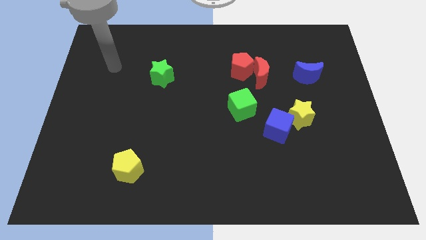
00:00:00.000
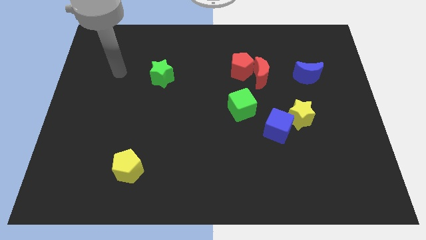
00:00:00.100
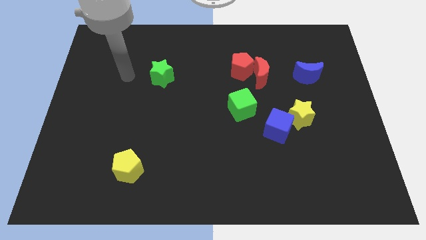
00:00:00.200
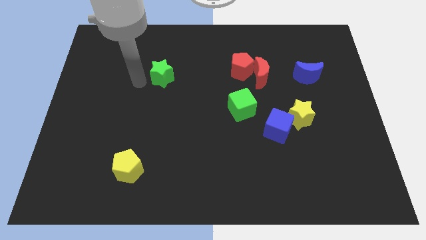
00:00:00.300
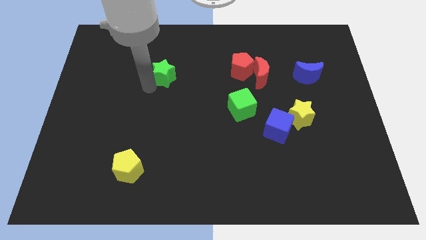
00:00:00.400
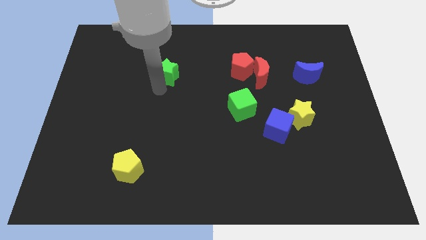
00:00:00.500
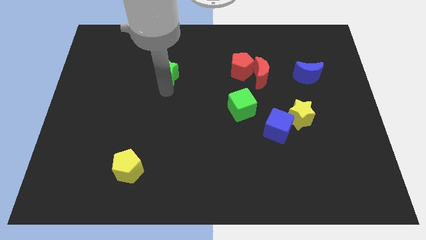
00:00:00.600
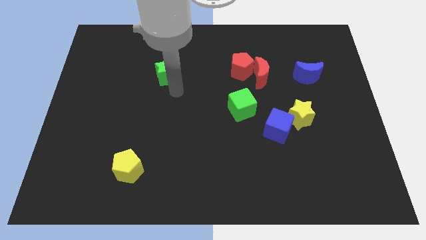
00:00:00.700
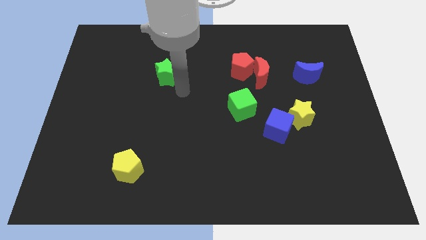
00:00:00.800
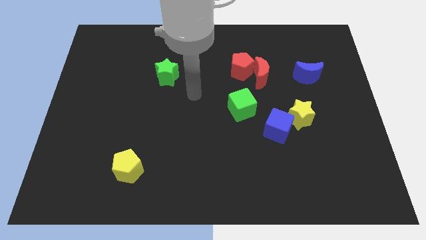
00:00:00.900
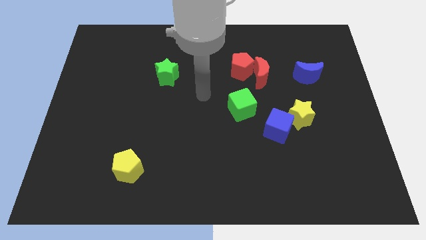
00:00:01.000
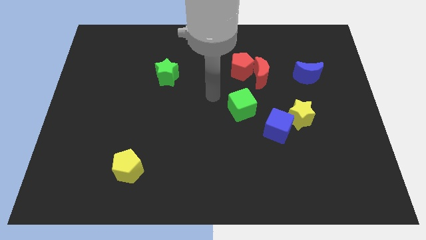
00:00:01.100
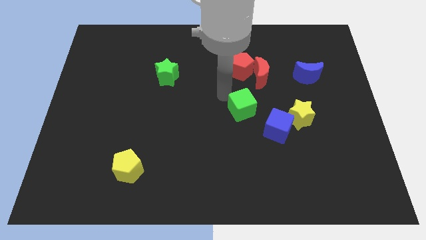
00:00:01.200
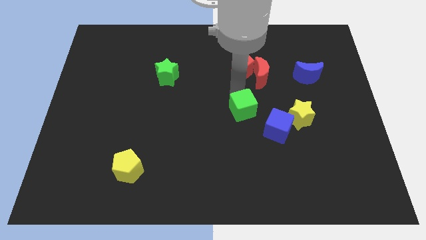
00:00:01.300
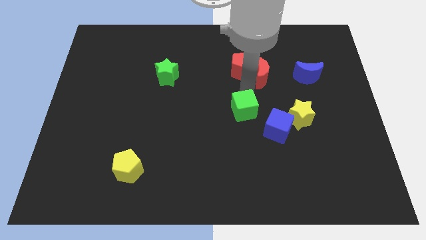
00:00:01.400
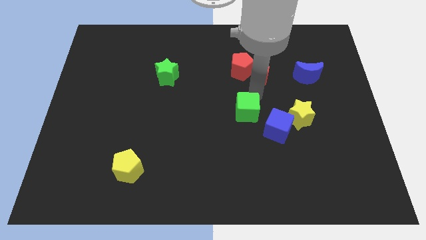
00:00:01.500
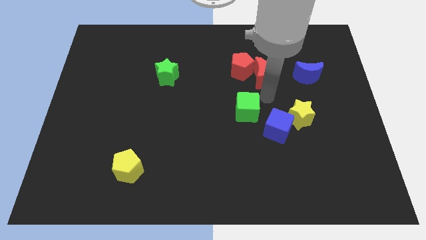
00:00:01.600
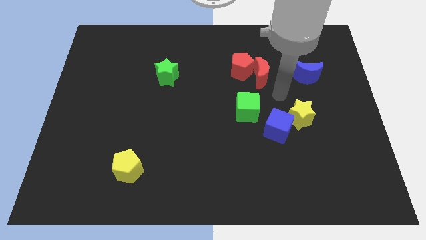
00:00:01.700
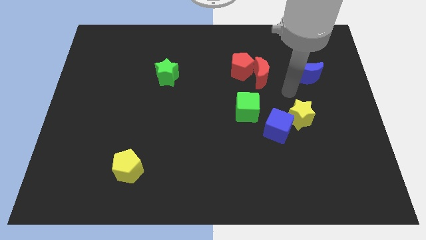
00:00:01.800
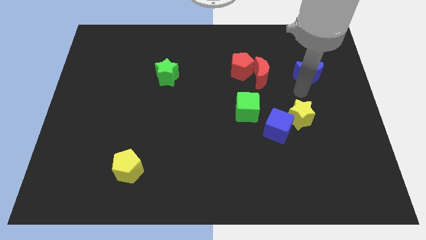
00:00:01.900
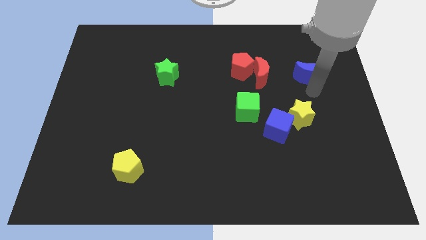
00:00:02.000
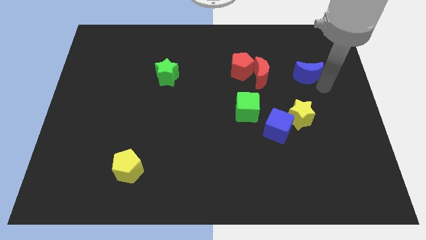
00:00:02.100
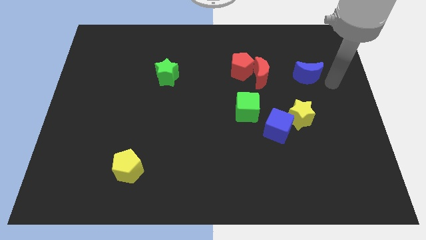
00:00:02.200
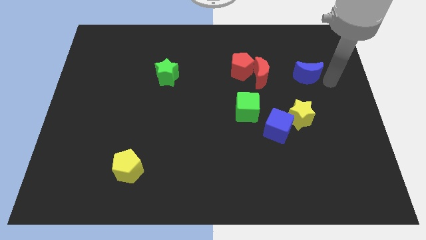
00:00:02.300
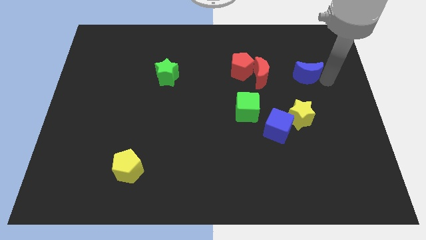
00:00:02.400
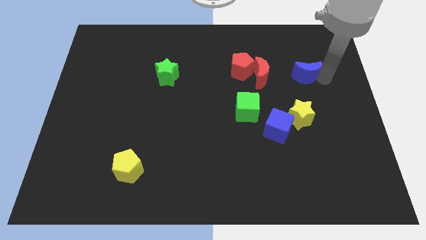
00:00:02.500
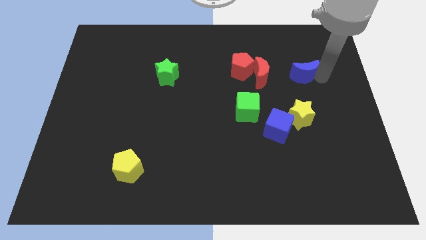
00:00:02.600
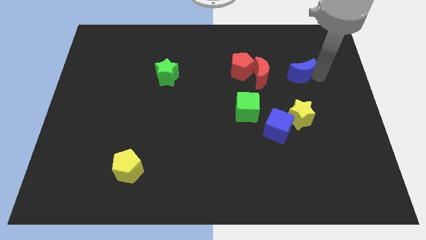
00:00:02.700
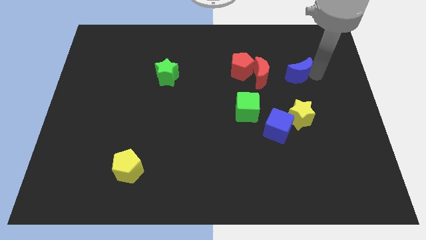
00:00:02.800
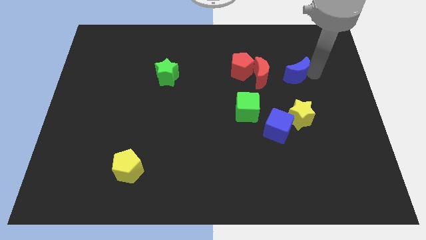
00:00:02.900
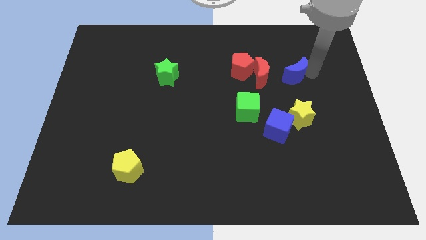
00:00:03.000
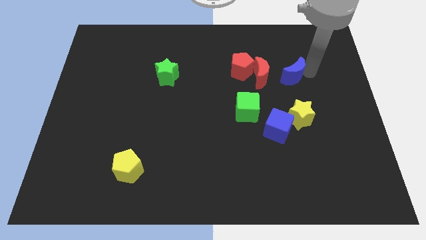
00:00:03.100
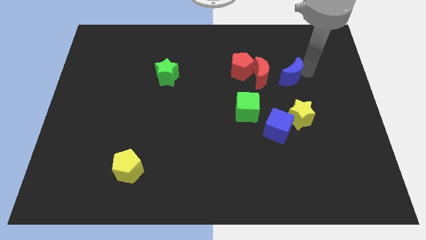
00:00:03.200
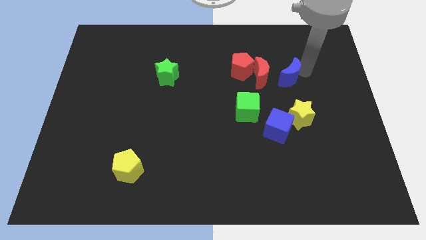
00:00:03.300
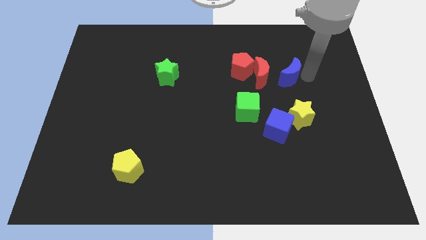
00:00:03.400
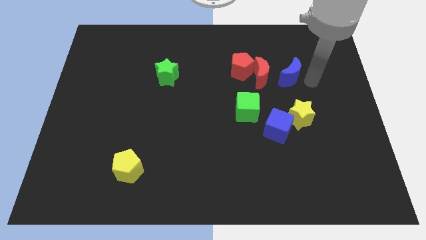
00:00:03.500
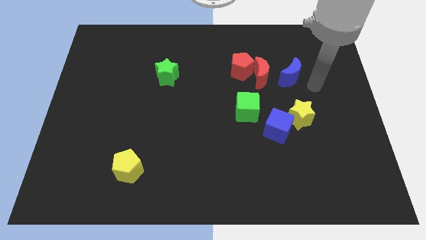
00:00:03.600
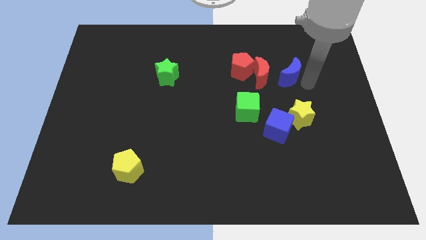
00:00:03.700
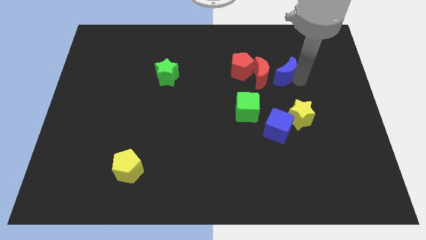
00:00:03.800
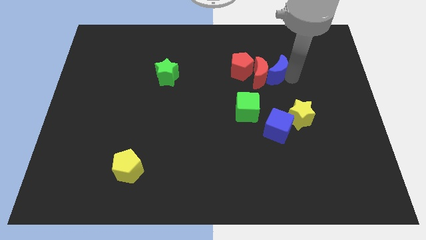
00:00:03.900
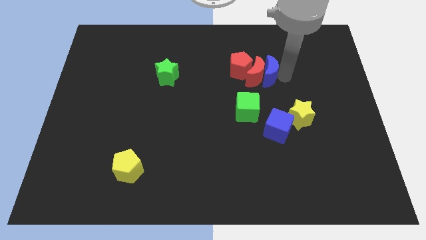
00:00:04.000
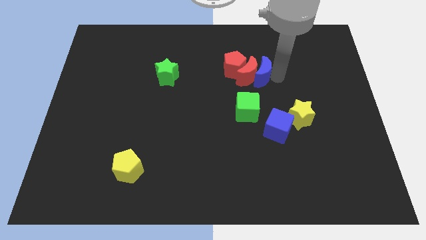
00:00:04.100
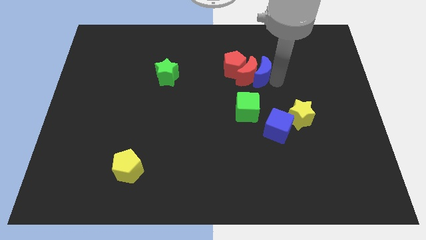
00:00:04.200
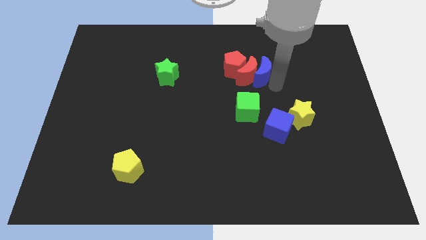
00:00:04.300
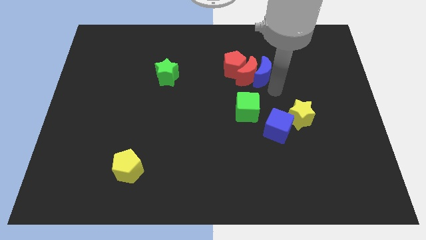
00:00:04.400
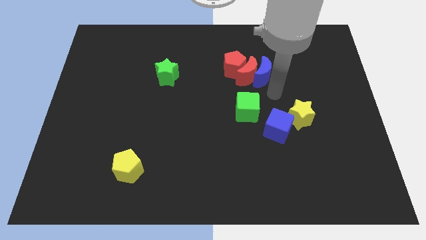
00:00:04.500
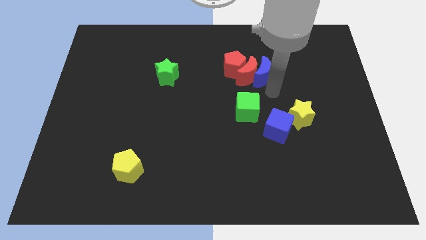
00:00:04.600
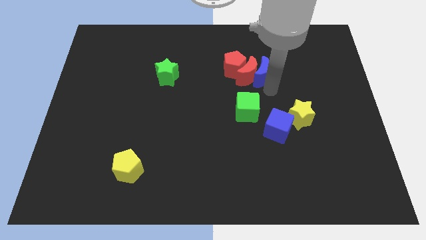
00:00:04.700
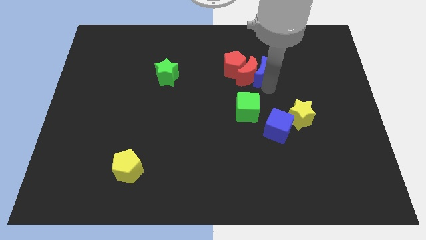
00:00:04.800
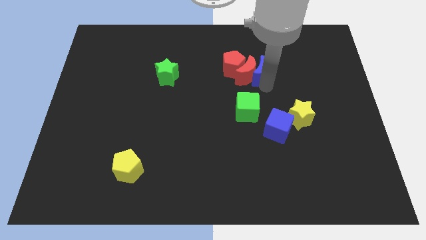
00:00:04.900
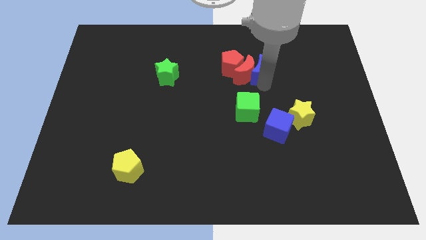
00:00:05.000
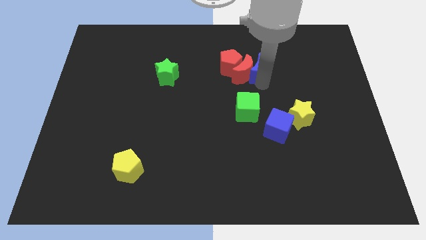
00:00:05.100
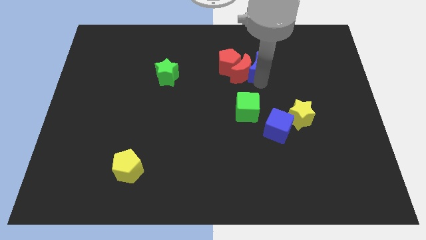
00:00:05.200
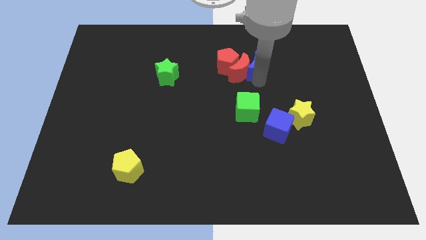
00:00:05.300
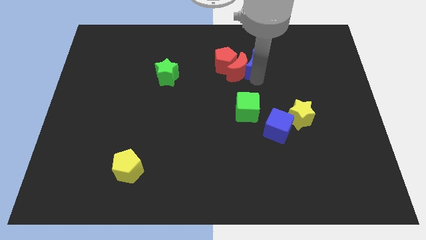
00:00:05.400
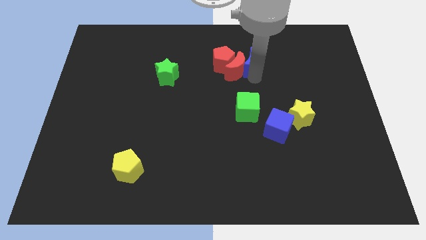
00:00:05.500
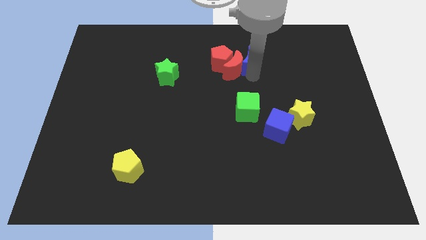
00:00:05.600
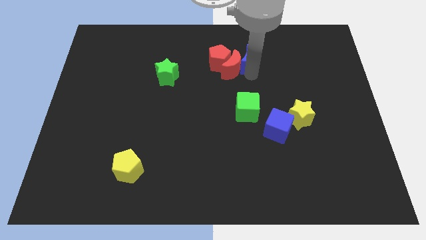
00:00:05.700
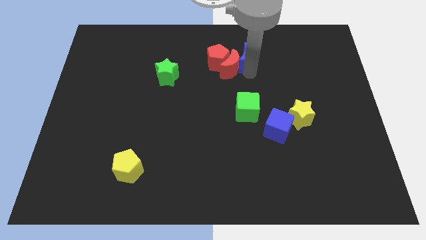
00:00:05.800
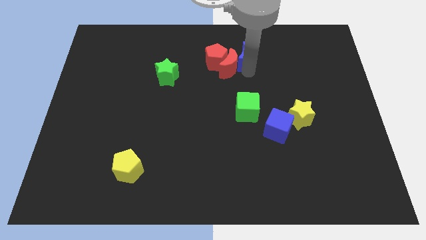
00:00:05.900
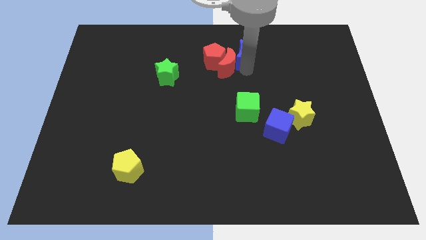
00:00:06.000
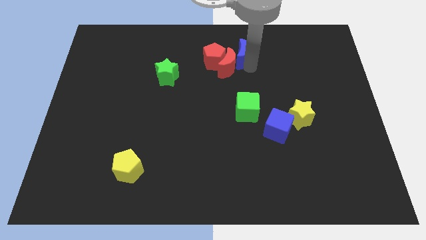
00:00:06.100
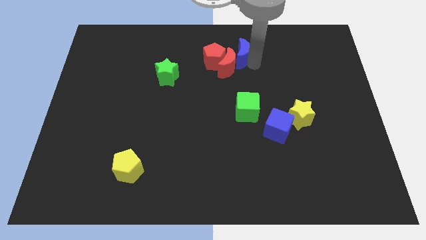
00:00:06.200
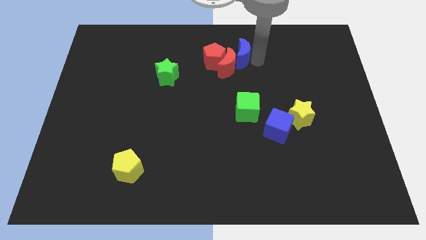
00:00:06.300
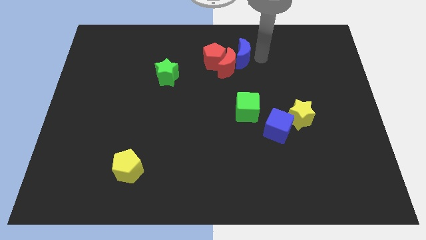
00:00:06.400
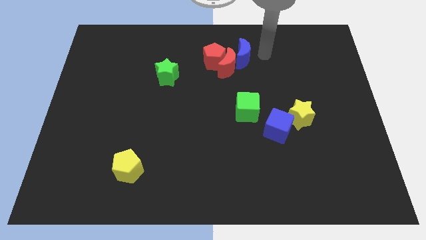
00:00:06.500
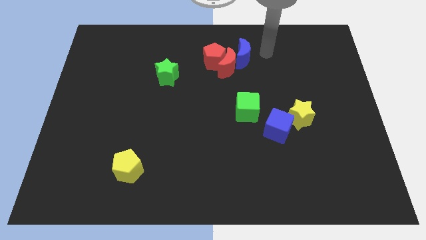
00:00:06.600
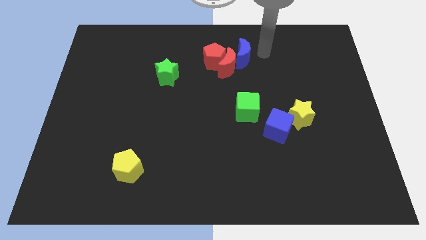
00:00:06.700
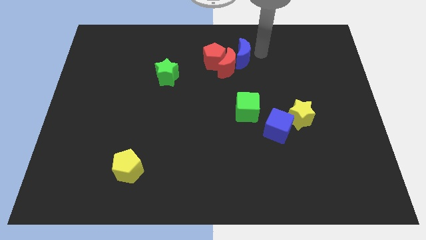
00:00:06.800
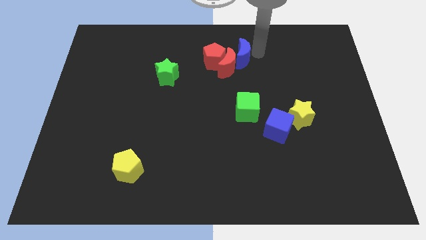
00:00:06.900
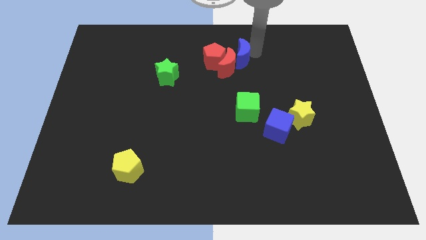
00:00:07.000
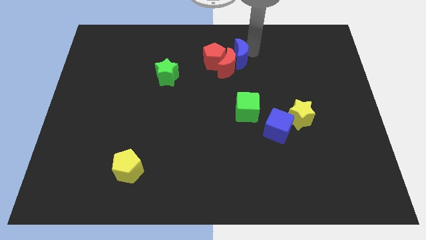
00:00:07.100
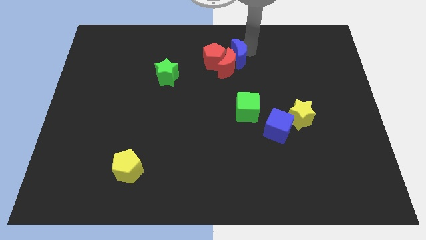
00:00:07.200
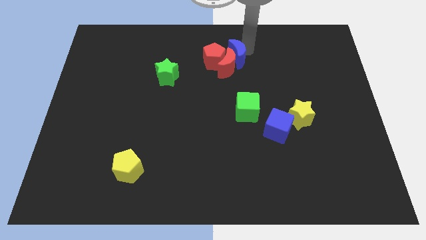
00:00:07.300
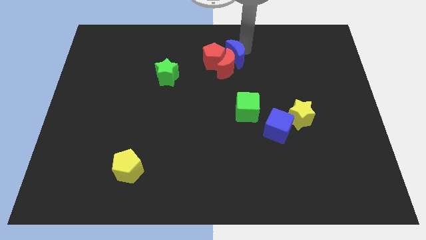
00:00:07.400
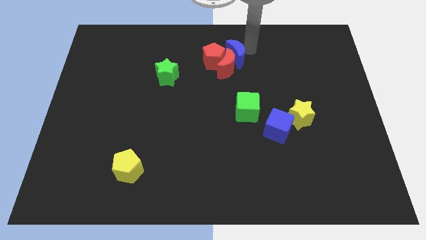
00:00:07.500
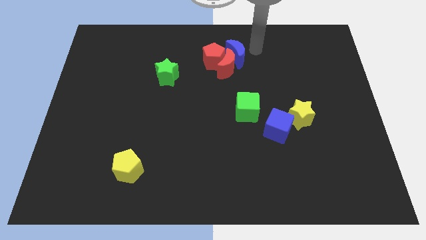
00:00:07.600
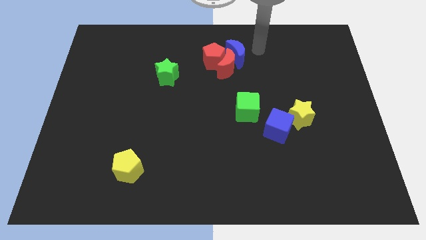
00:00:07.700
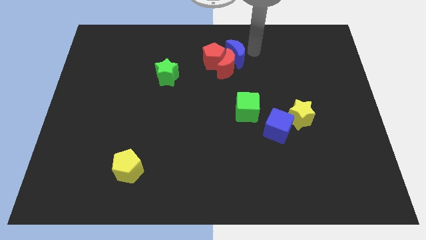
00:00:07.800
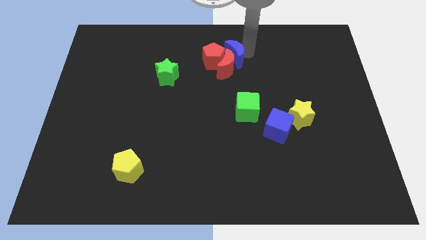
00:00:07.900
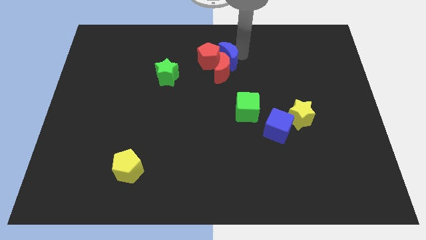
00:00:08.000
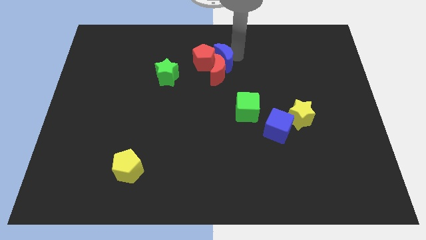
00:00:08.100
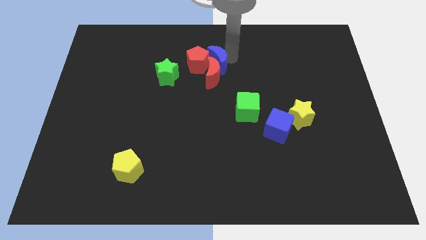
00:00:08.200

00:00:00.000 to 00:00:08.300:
push the blue moon to the left
